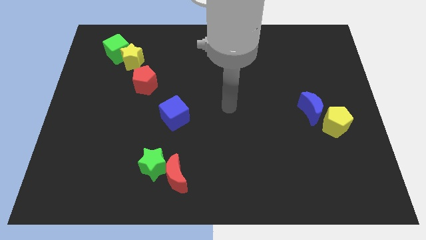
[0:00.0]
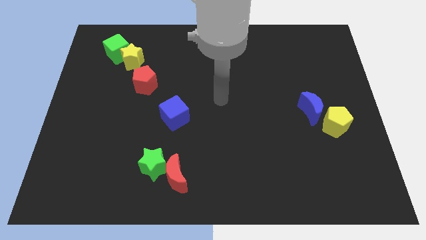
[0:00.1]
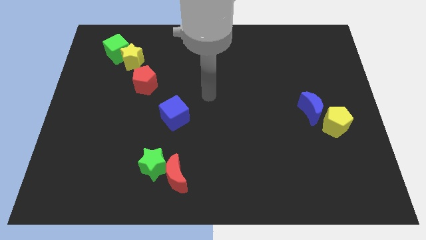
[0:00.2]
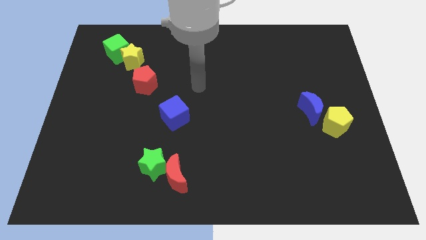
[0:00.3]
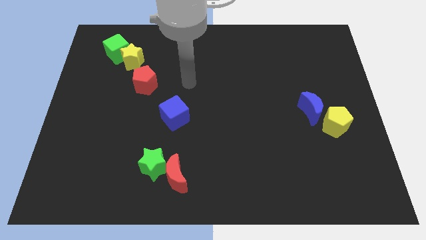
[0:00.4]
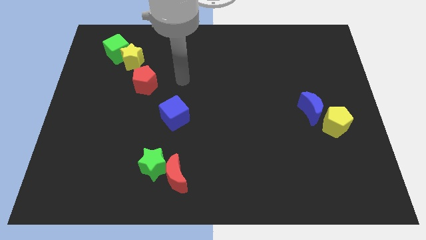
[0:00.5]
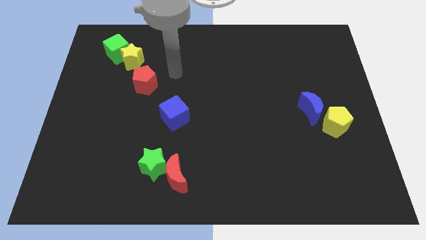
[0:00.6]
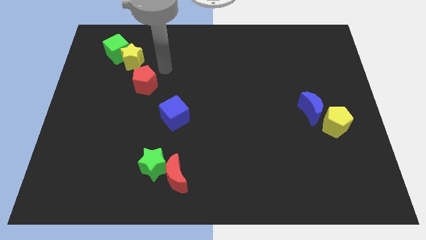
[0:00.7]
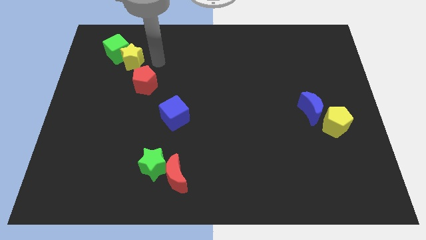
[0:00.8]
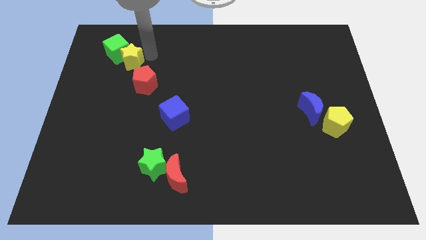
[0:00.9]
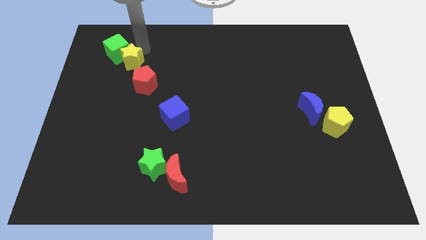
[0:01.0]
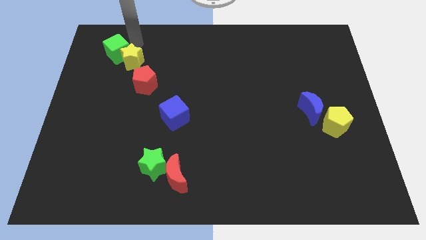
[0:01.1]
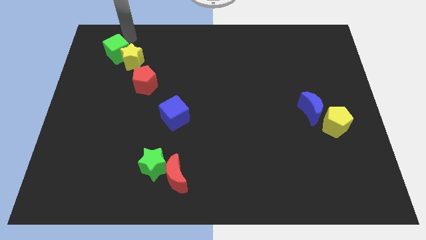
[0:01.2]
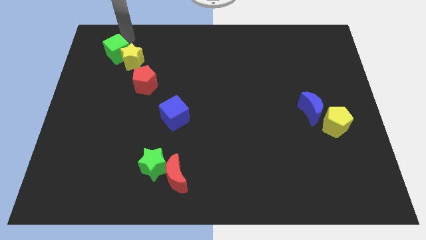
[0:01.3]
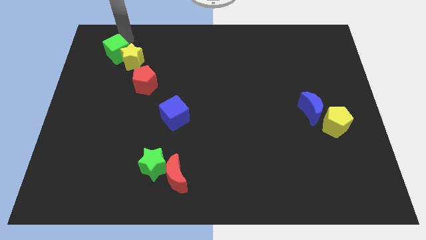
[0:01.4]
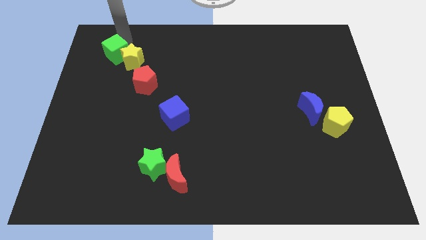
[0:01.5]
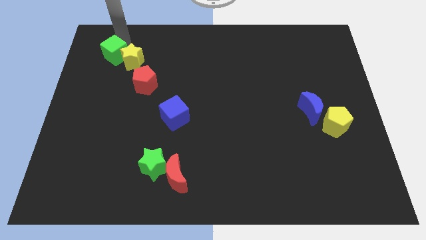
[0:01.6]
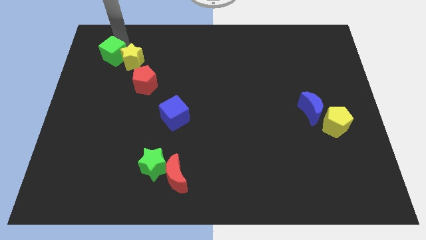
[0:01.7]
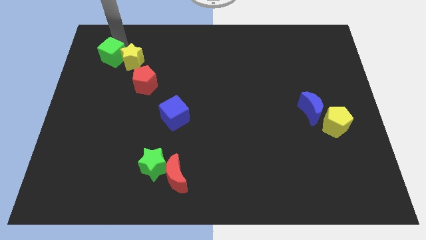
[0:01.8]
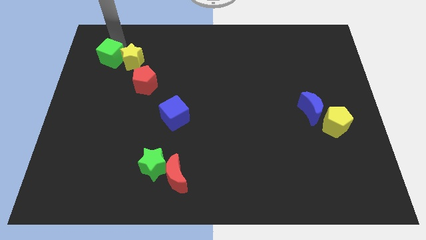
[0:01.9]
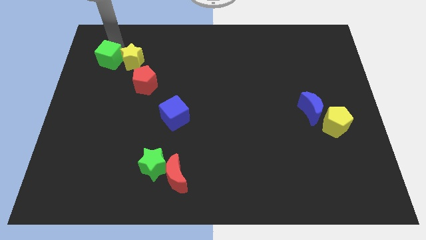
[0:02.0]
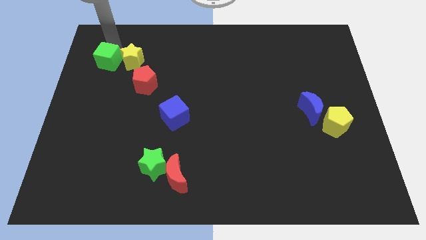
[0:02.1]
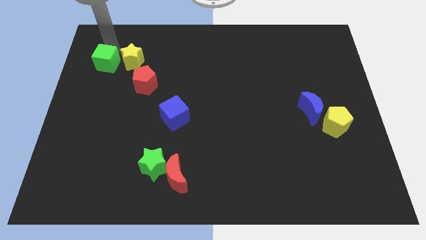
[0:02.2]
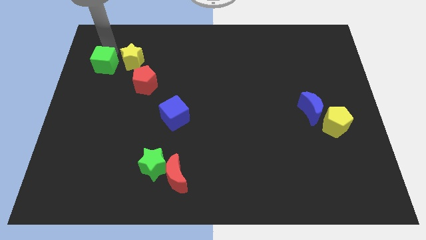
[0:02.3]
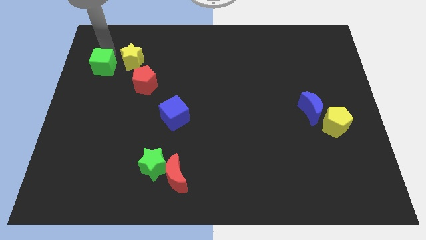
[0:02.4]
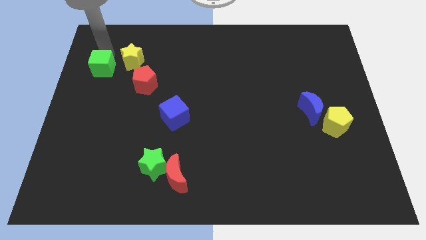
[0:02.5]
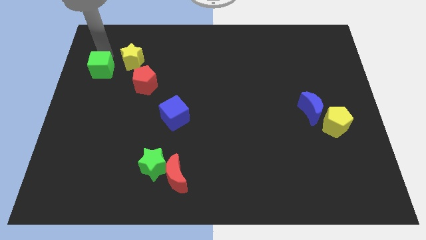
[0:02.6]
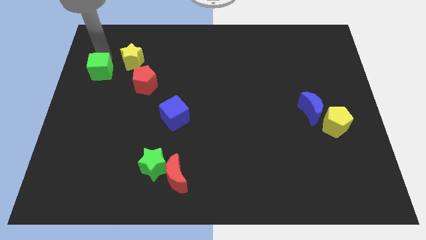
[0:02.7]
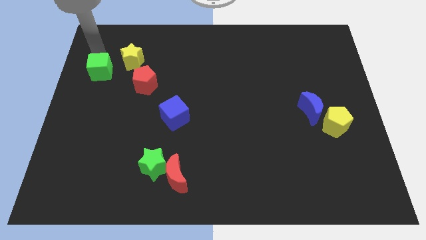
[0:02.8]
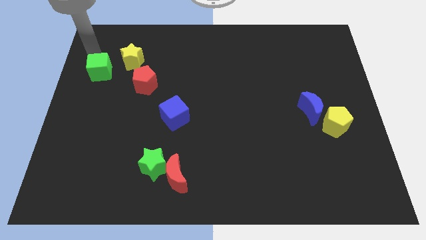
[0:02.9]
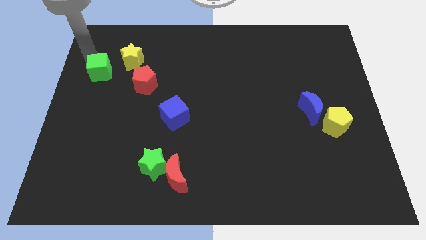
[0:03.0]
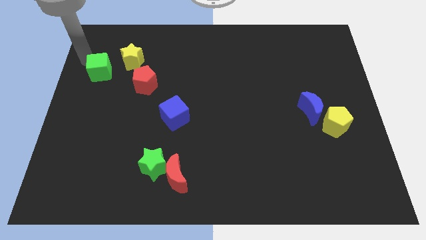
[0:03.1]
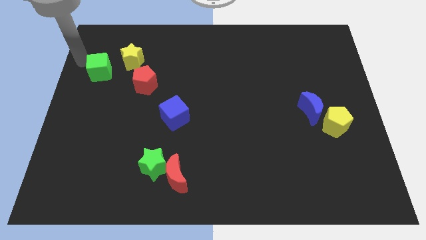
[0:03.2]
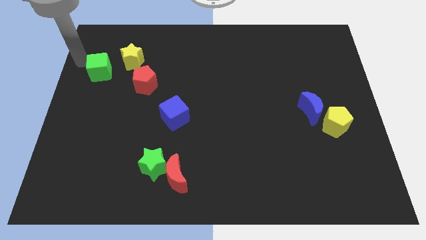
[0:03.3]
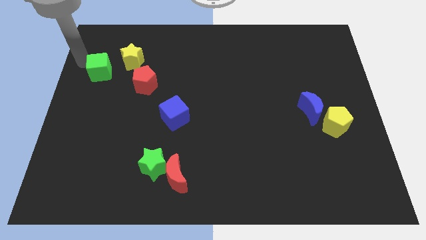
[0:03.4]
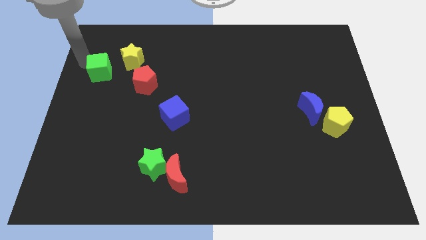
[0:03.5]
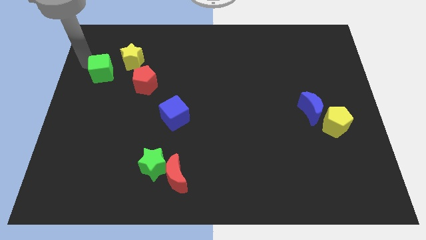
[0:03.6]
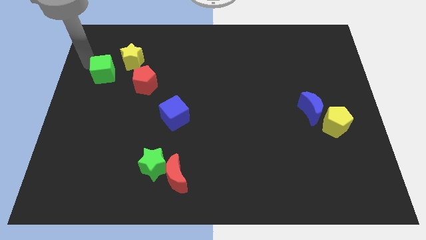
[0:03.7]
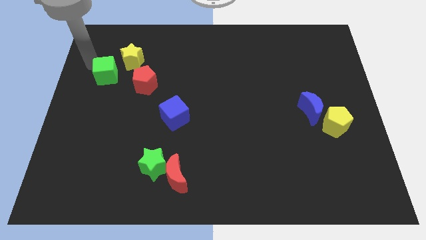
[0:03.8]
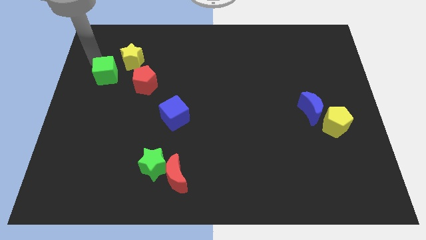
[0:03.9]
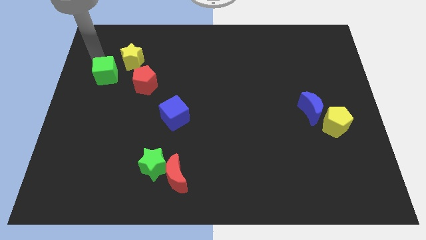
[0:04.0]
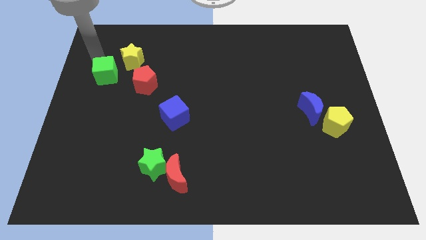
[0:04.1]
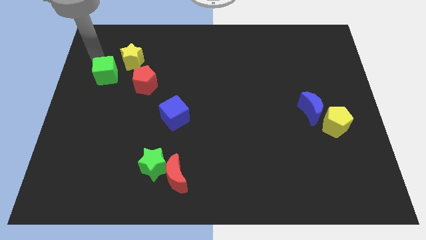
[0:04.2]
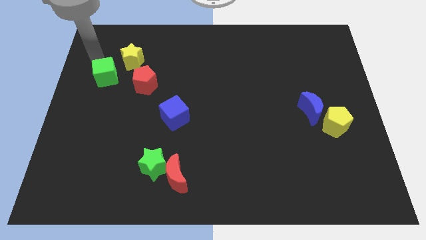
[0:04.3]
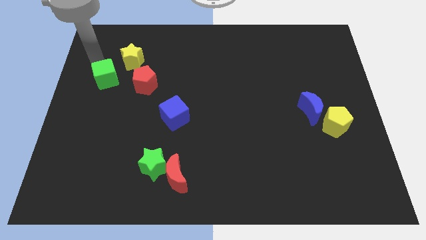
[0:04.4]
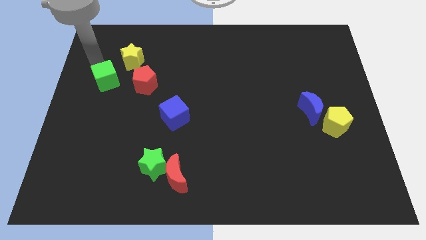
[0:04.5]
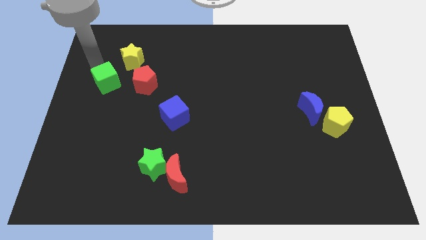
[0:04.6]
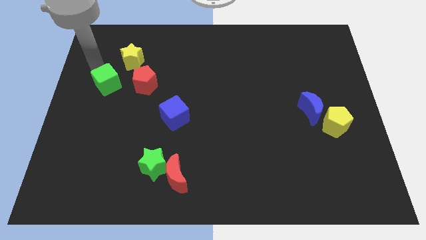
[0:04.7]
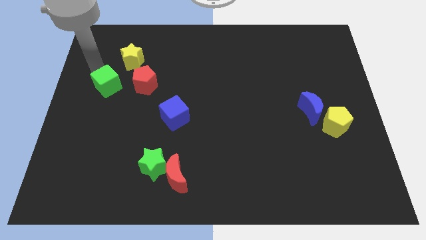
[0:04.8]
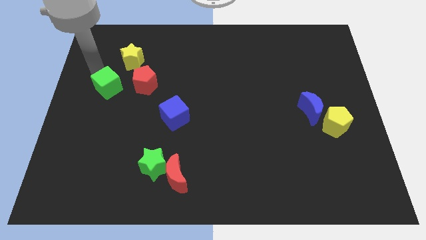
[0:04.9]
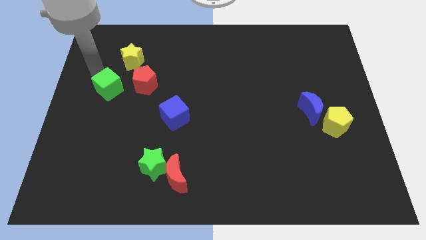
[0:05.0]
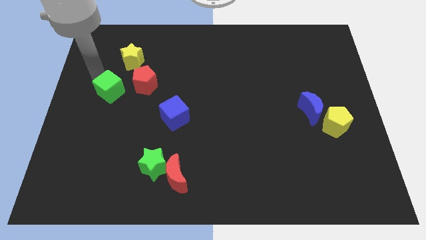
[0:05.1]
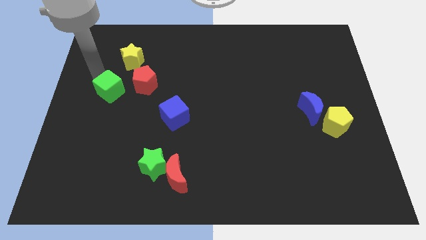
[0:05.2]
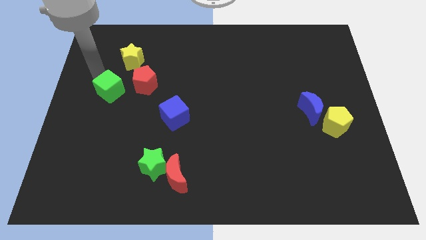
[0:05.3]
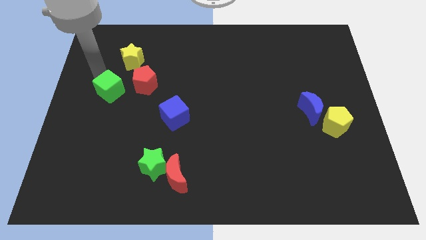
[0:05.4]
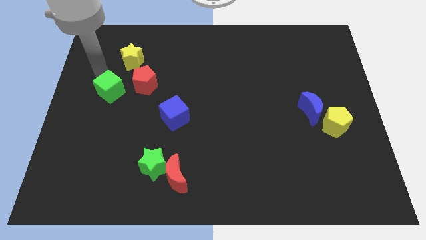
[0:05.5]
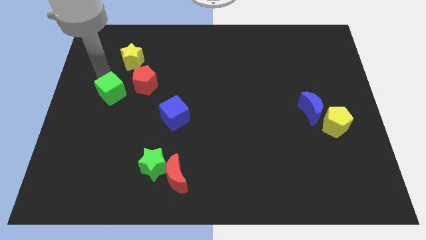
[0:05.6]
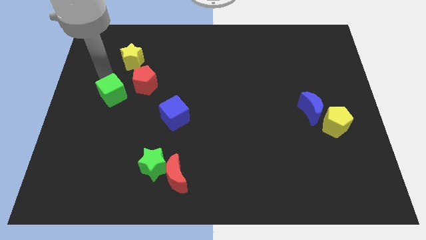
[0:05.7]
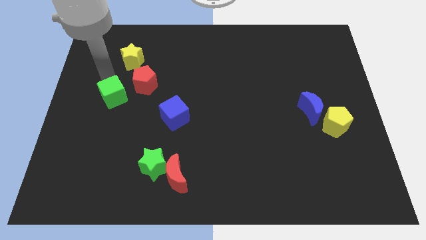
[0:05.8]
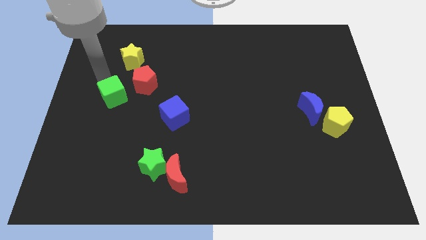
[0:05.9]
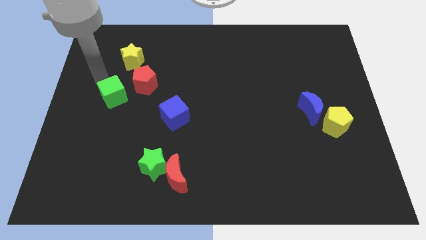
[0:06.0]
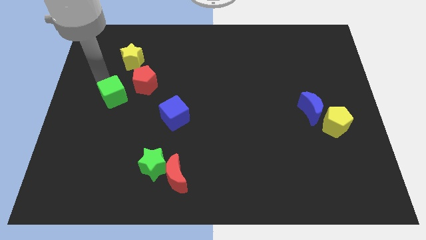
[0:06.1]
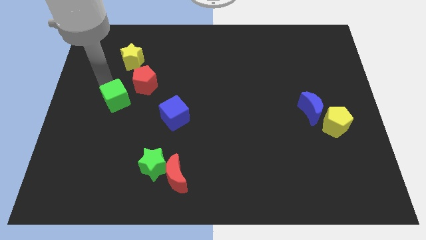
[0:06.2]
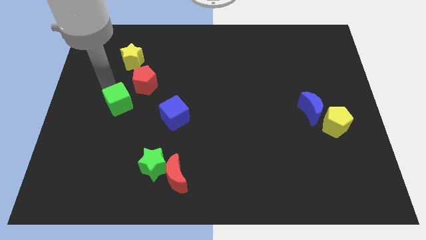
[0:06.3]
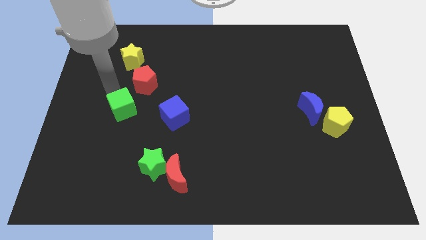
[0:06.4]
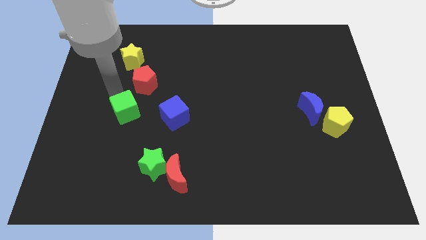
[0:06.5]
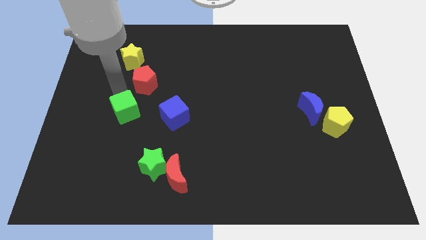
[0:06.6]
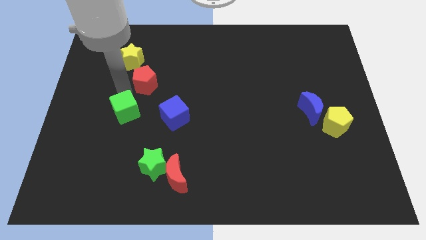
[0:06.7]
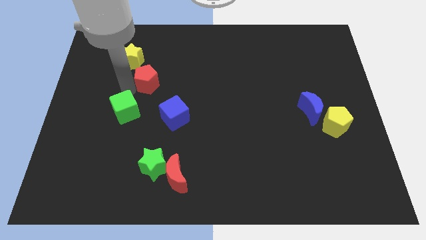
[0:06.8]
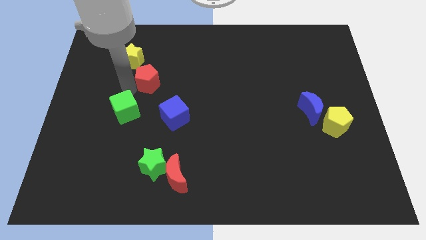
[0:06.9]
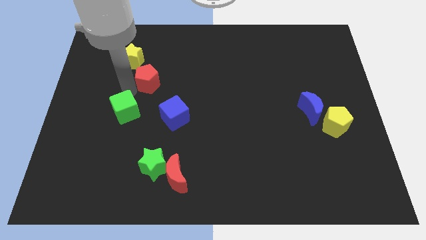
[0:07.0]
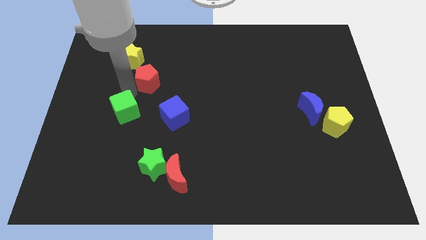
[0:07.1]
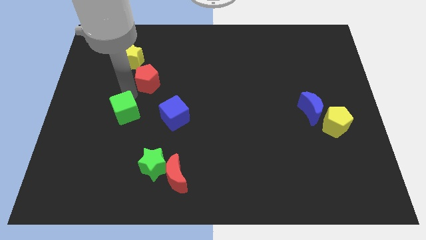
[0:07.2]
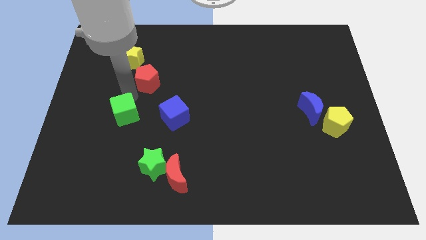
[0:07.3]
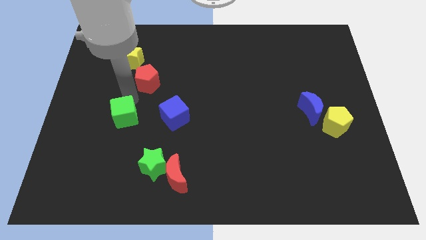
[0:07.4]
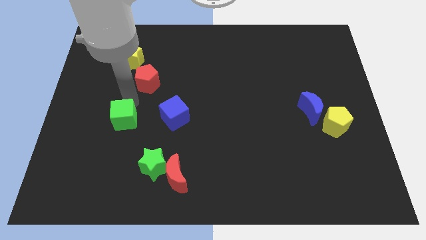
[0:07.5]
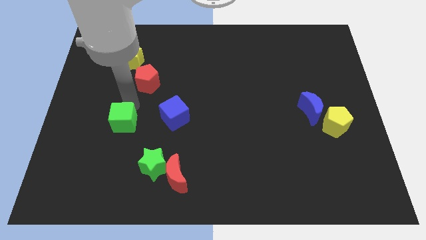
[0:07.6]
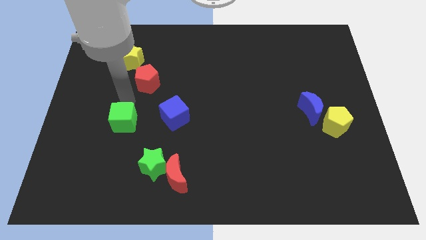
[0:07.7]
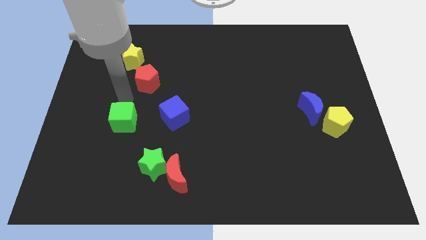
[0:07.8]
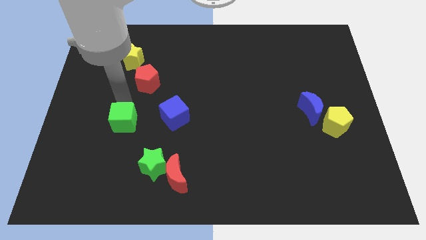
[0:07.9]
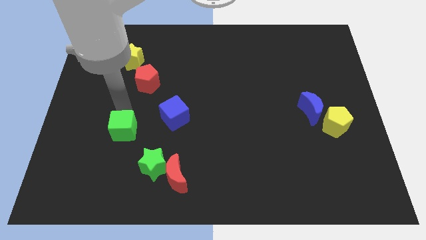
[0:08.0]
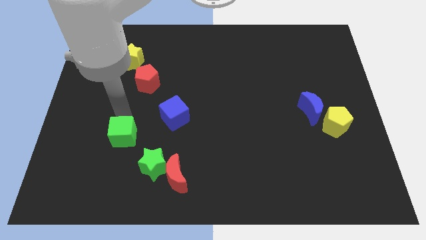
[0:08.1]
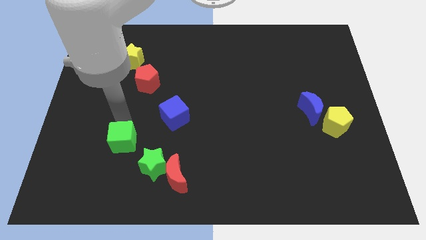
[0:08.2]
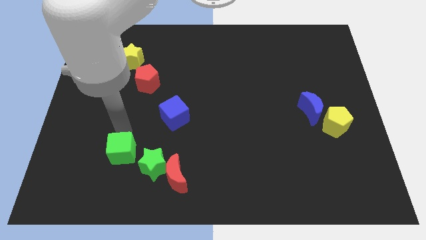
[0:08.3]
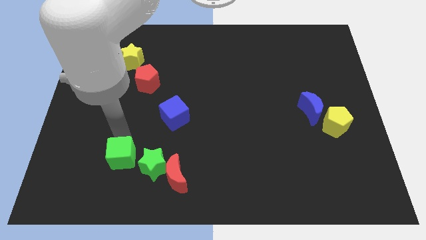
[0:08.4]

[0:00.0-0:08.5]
push the green cube to the left side of the red moon
